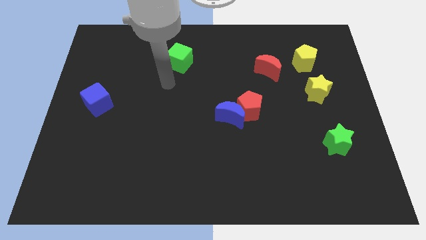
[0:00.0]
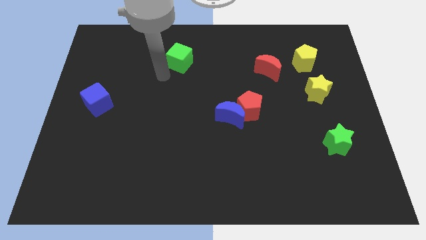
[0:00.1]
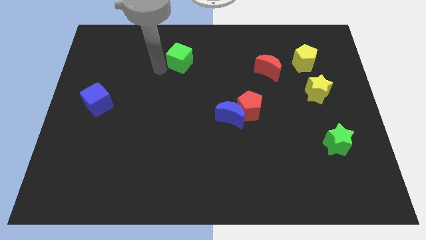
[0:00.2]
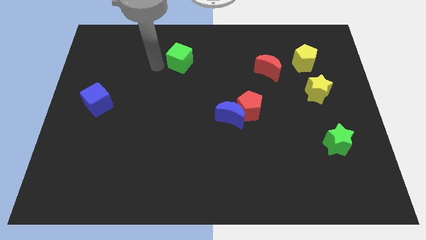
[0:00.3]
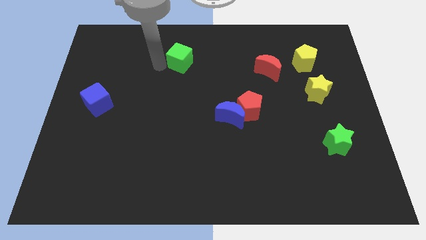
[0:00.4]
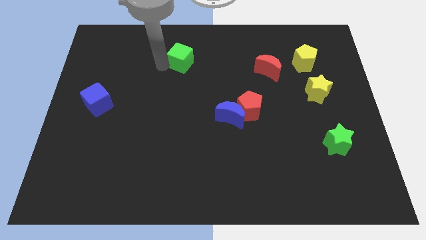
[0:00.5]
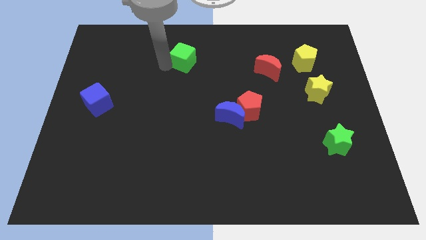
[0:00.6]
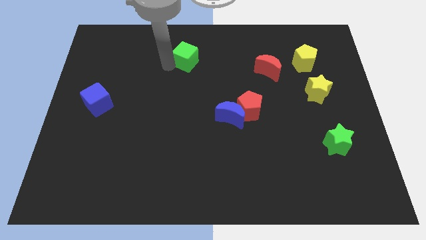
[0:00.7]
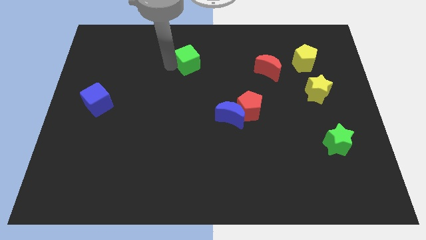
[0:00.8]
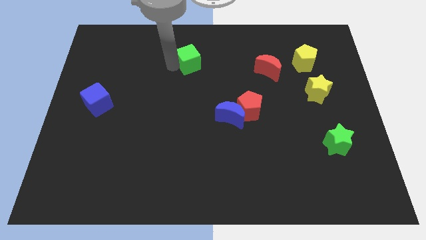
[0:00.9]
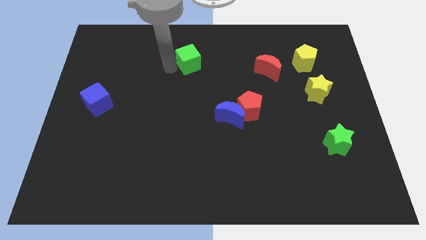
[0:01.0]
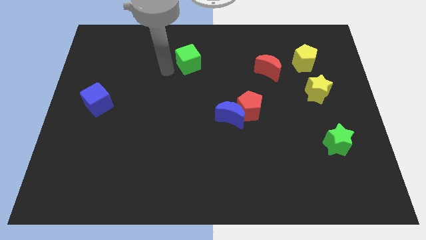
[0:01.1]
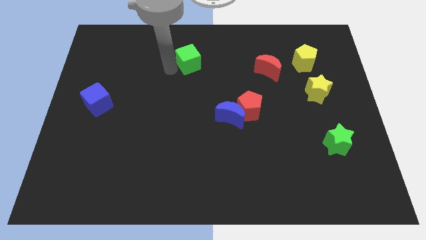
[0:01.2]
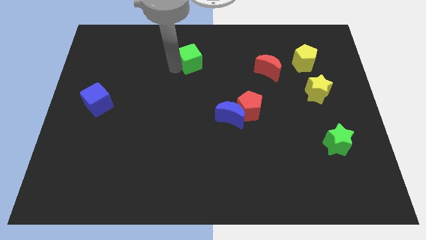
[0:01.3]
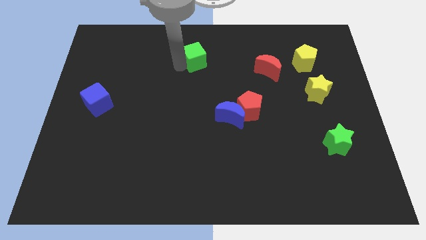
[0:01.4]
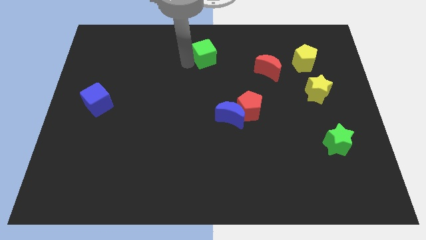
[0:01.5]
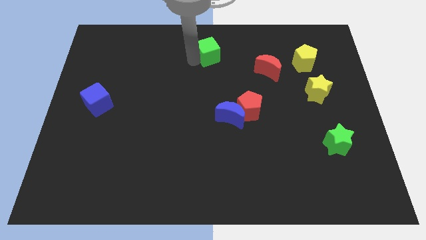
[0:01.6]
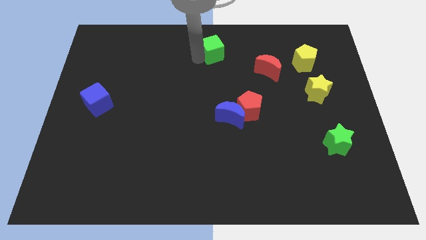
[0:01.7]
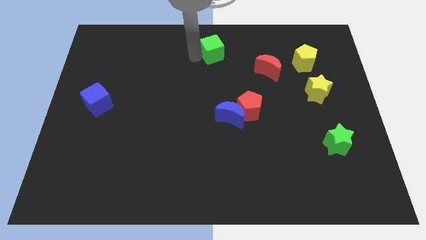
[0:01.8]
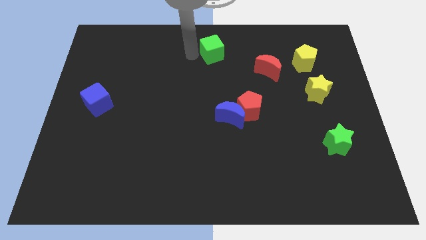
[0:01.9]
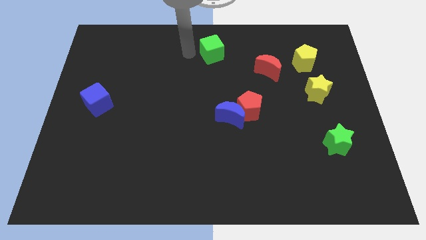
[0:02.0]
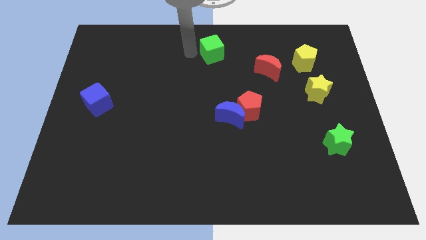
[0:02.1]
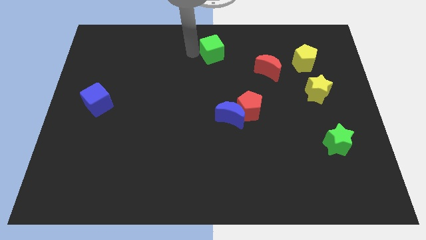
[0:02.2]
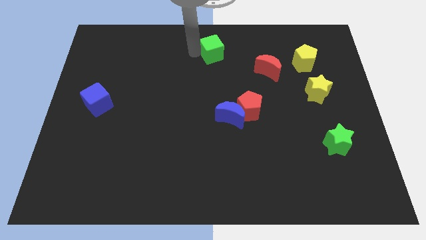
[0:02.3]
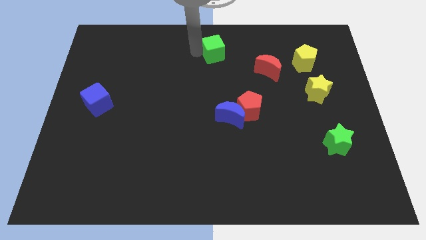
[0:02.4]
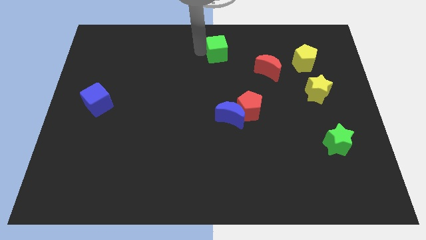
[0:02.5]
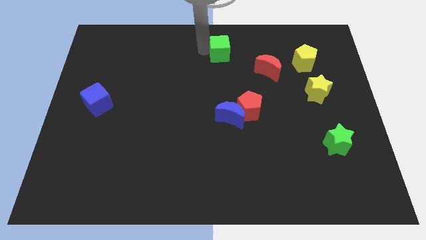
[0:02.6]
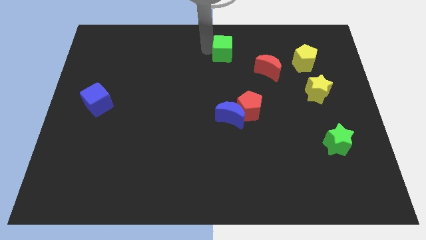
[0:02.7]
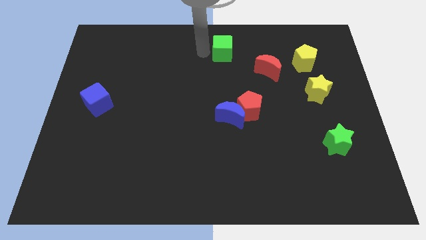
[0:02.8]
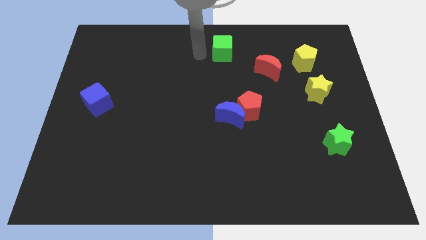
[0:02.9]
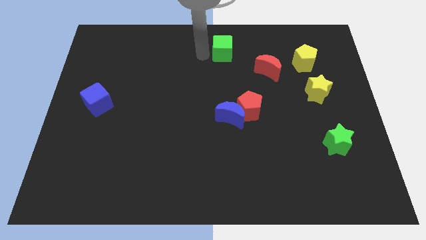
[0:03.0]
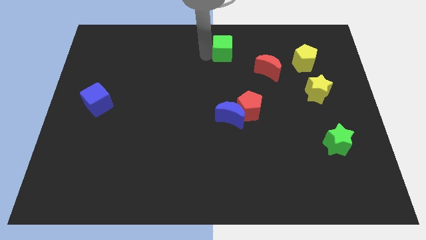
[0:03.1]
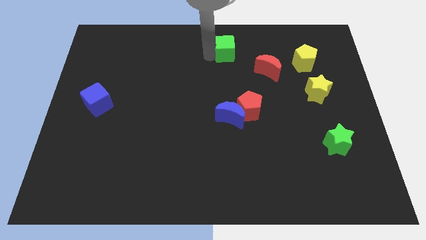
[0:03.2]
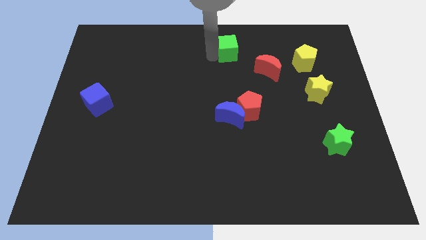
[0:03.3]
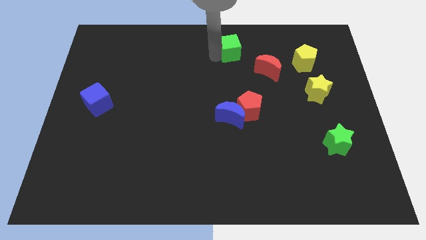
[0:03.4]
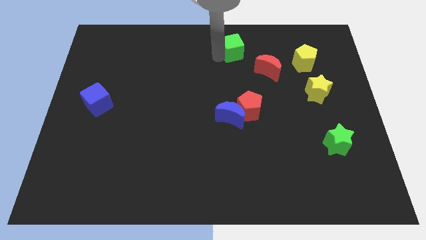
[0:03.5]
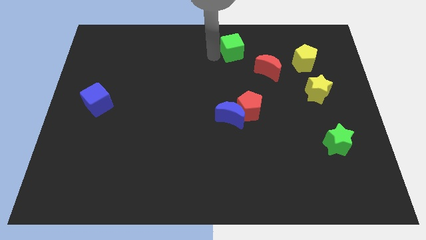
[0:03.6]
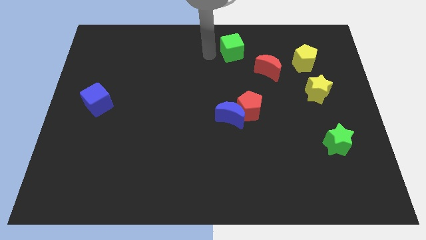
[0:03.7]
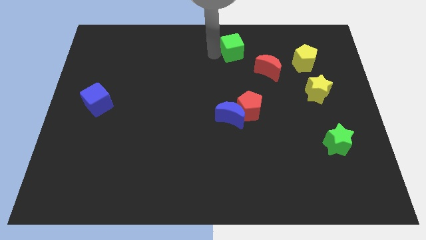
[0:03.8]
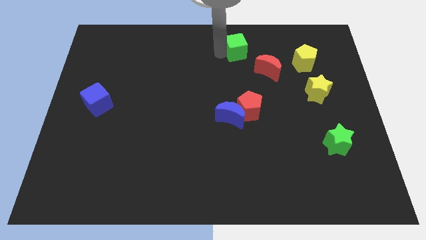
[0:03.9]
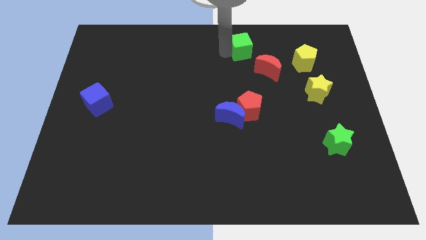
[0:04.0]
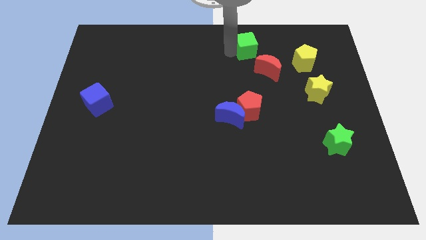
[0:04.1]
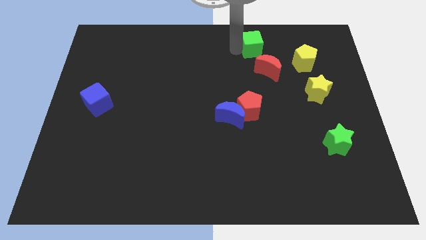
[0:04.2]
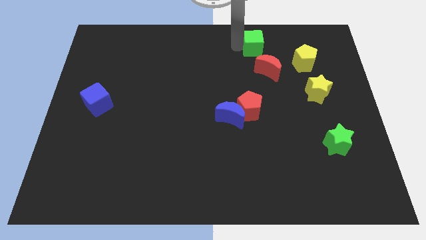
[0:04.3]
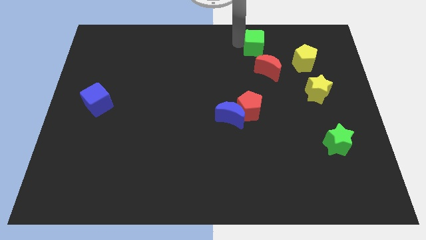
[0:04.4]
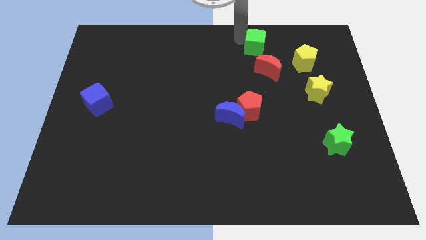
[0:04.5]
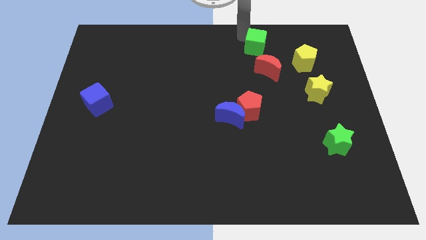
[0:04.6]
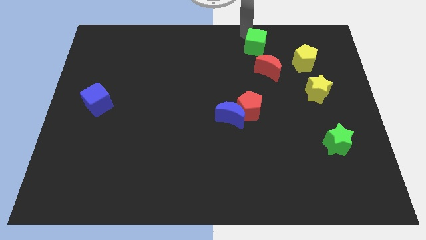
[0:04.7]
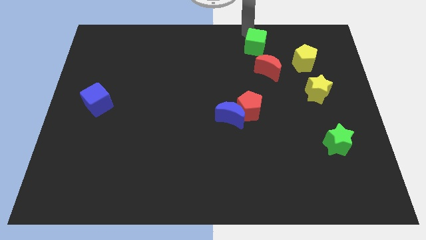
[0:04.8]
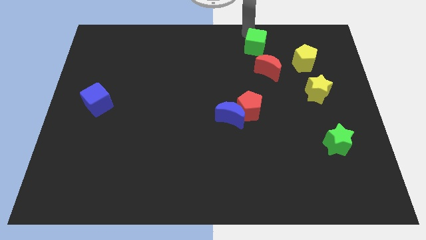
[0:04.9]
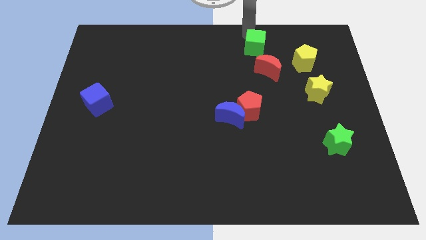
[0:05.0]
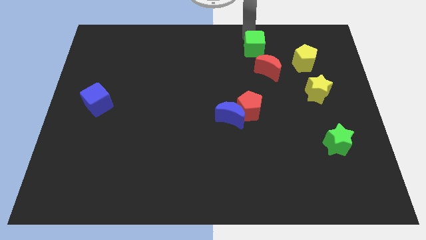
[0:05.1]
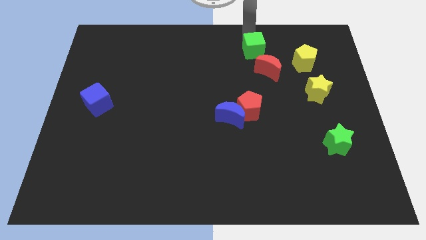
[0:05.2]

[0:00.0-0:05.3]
push the green cube just left of the yellow pentagon

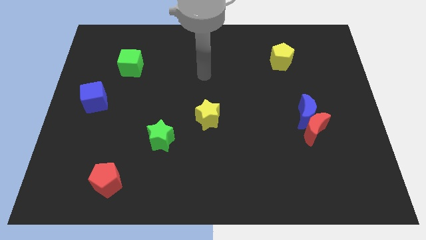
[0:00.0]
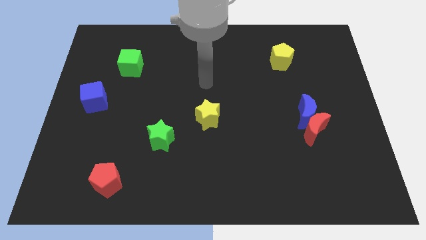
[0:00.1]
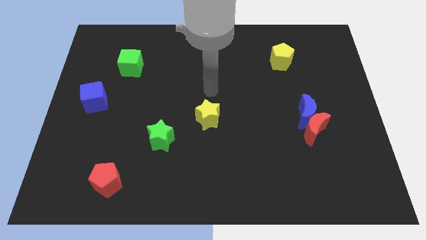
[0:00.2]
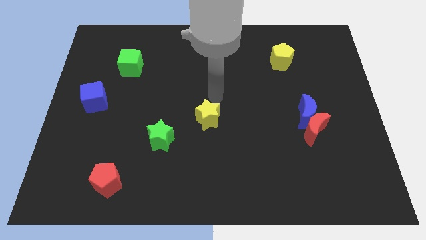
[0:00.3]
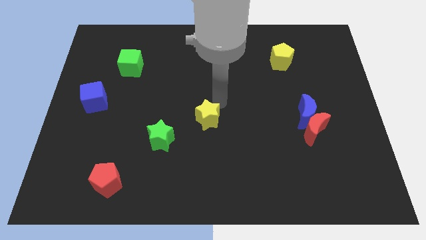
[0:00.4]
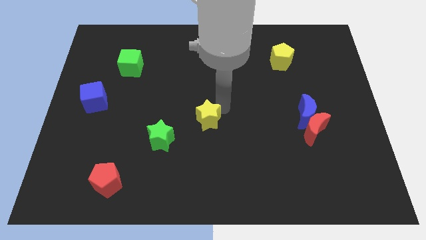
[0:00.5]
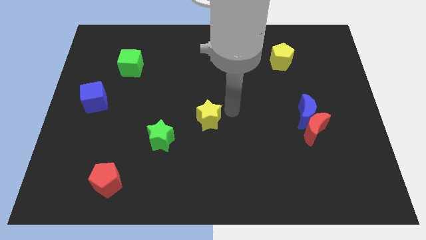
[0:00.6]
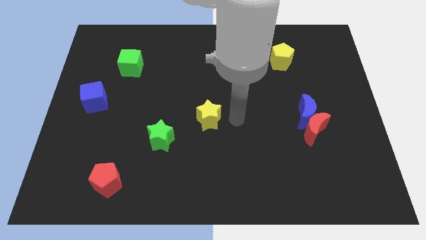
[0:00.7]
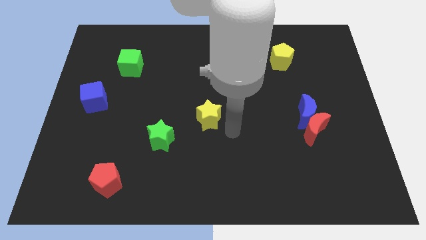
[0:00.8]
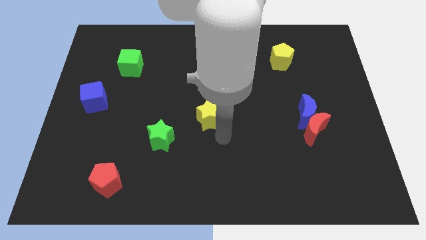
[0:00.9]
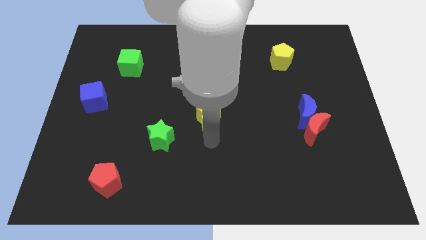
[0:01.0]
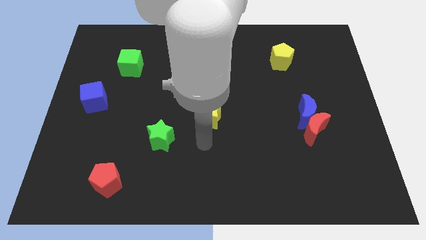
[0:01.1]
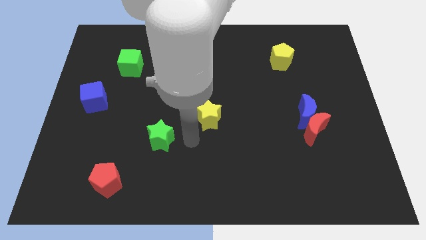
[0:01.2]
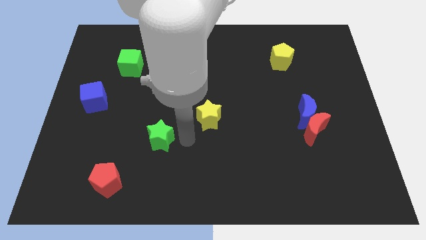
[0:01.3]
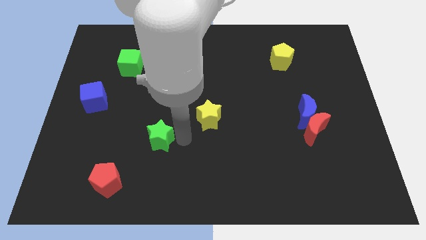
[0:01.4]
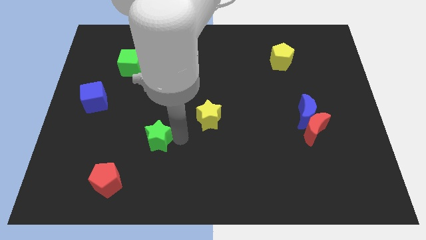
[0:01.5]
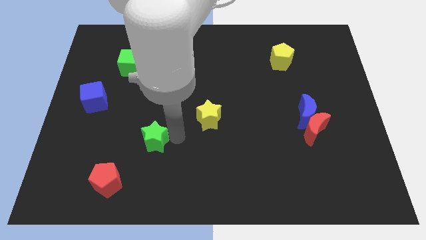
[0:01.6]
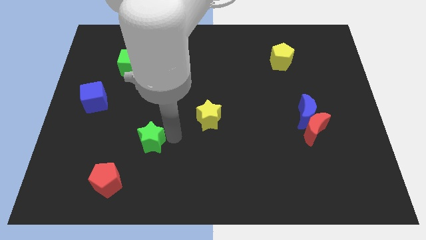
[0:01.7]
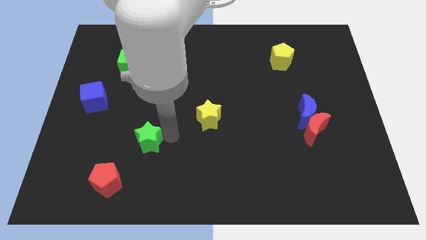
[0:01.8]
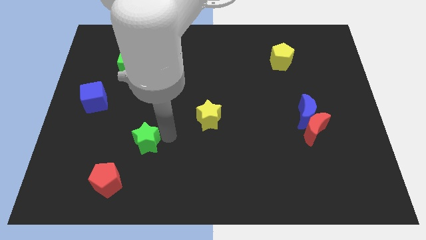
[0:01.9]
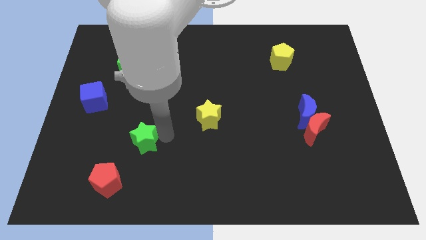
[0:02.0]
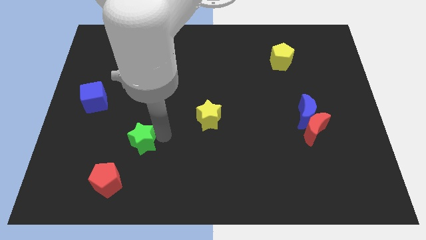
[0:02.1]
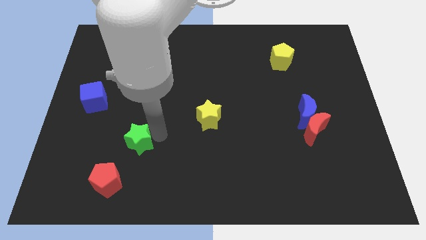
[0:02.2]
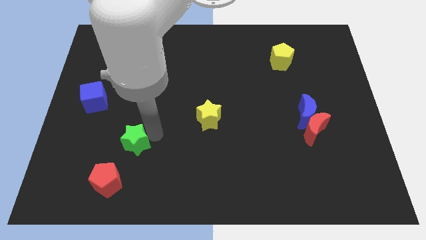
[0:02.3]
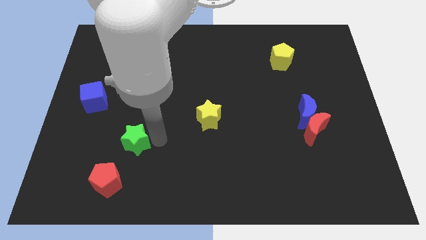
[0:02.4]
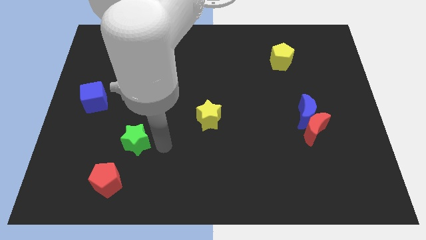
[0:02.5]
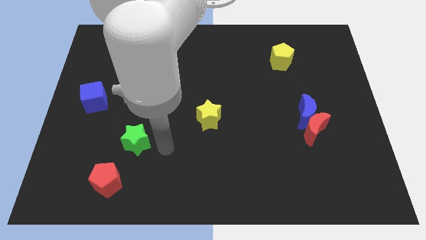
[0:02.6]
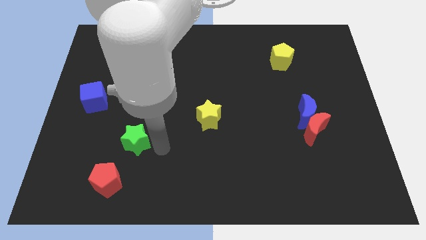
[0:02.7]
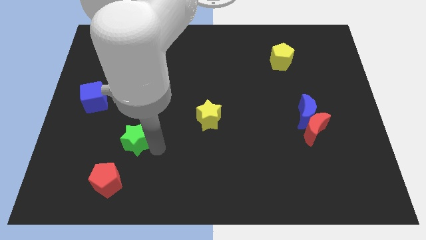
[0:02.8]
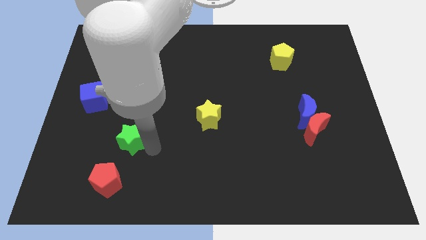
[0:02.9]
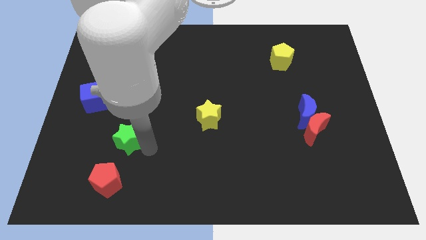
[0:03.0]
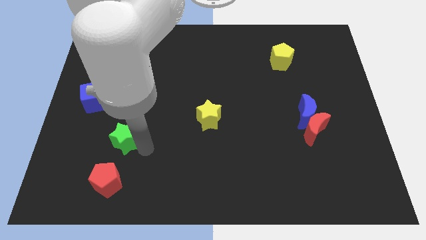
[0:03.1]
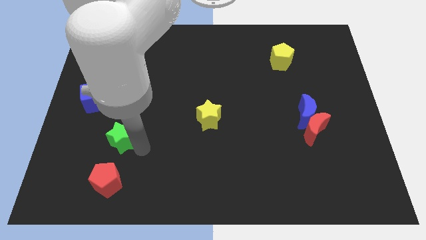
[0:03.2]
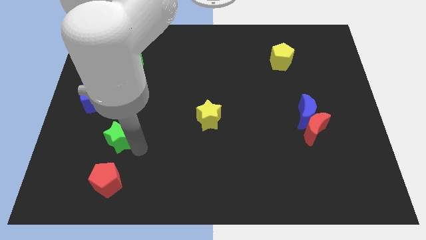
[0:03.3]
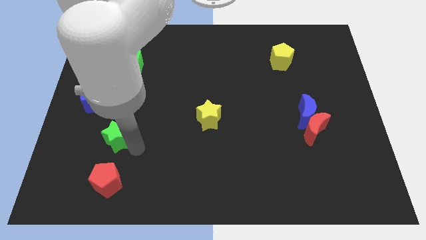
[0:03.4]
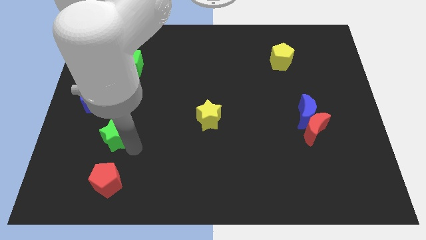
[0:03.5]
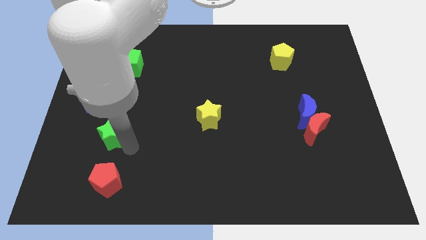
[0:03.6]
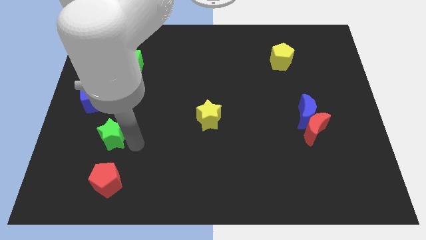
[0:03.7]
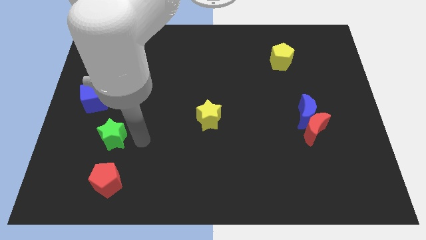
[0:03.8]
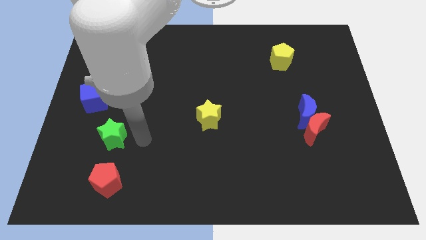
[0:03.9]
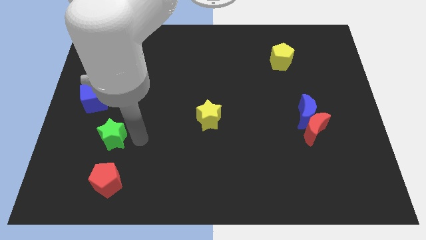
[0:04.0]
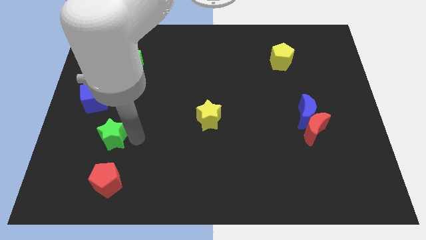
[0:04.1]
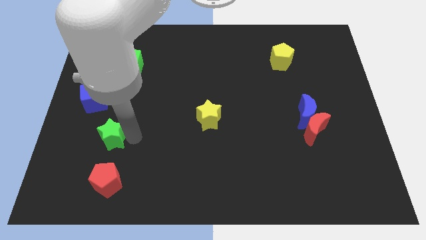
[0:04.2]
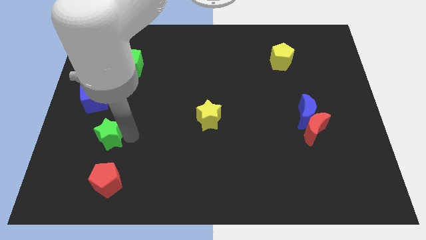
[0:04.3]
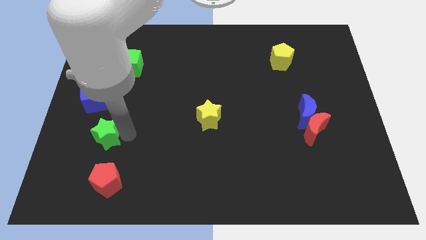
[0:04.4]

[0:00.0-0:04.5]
push the green star below the blue cube
